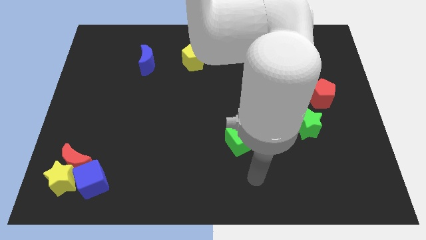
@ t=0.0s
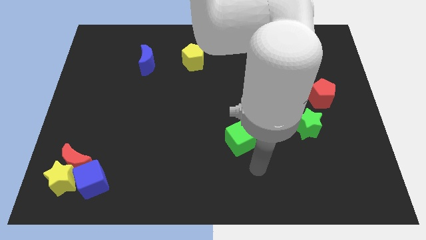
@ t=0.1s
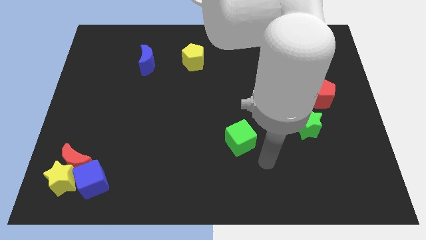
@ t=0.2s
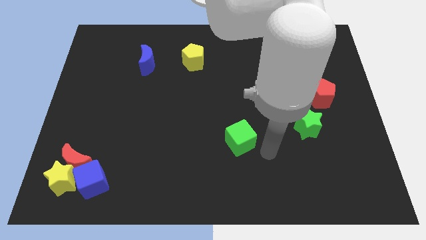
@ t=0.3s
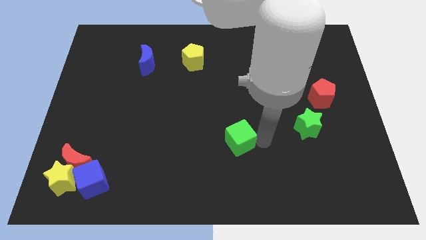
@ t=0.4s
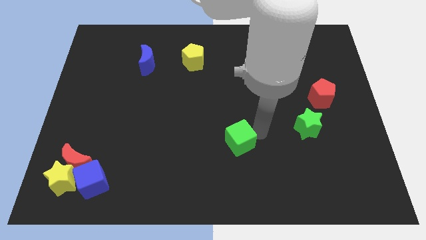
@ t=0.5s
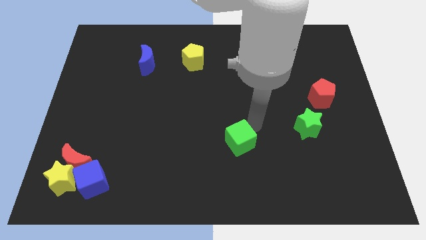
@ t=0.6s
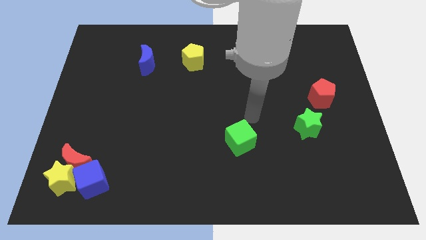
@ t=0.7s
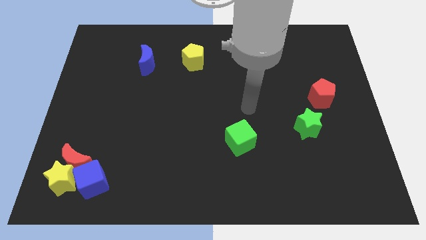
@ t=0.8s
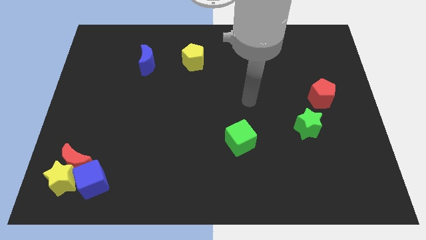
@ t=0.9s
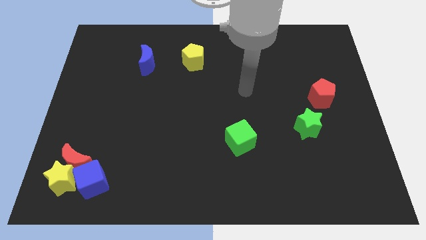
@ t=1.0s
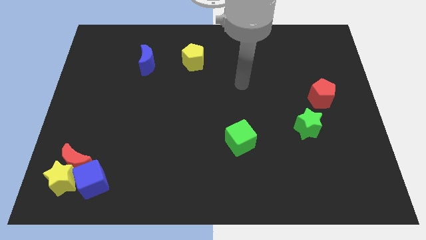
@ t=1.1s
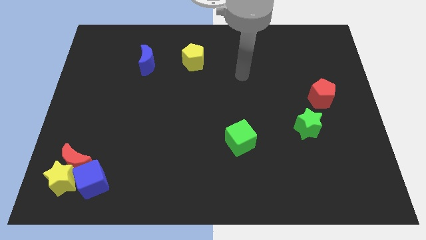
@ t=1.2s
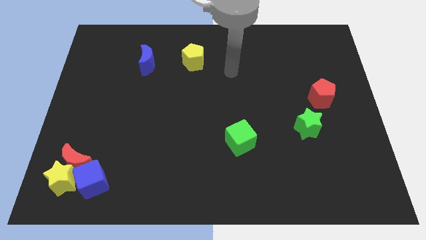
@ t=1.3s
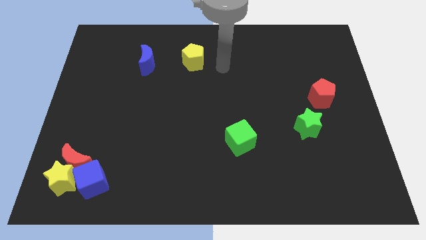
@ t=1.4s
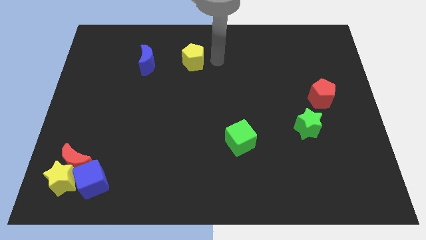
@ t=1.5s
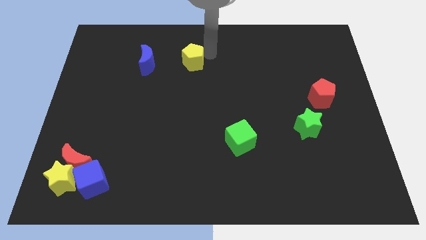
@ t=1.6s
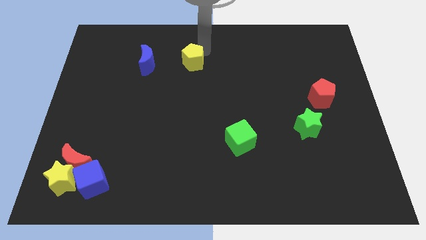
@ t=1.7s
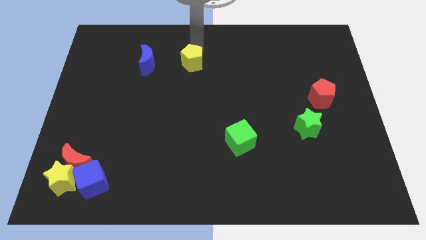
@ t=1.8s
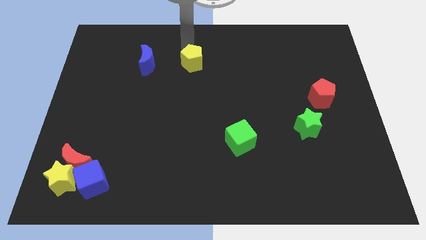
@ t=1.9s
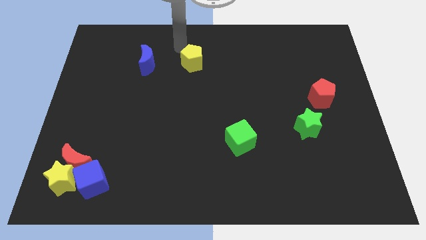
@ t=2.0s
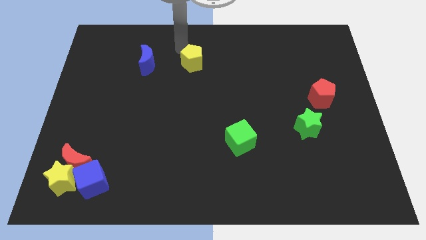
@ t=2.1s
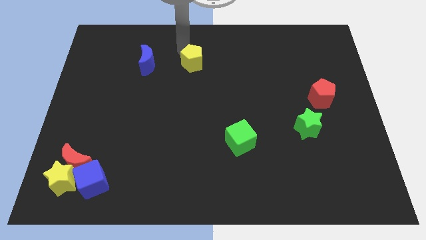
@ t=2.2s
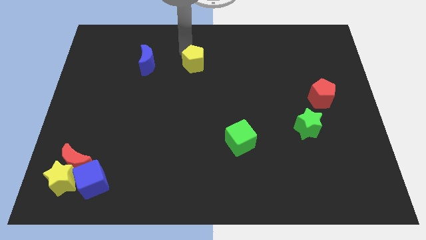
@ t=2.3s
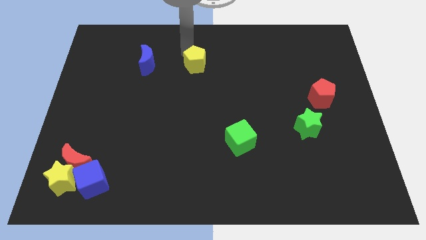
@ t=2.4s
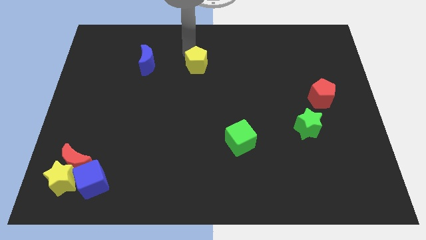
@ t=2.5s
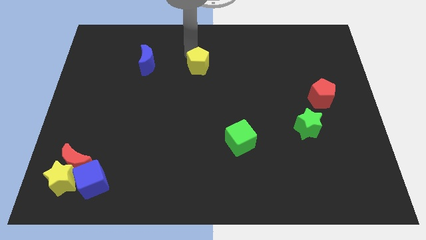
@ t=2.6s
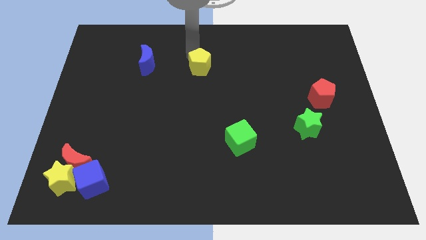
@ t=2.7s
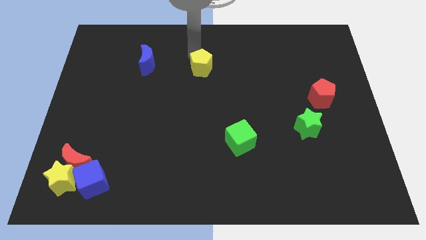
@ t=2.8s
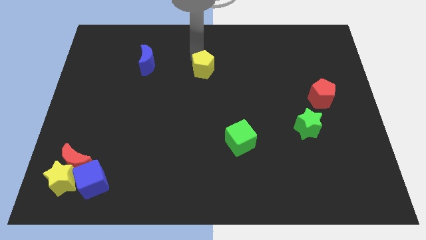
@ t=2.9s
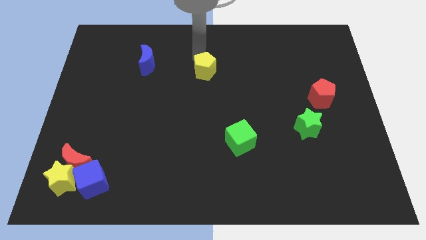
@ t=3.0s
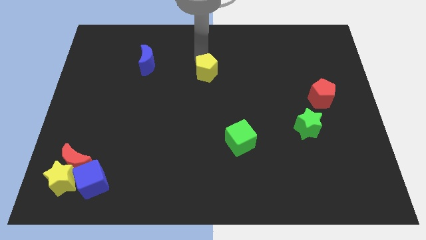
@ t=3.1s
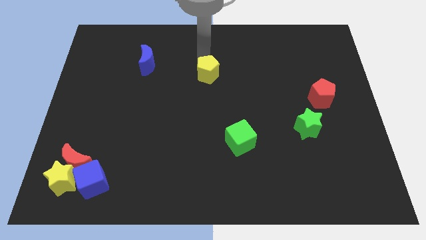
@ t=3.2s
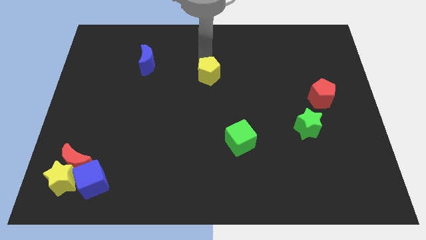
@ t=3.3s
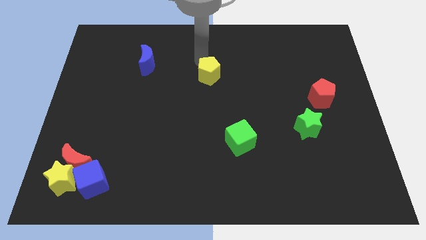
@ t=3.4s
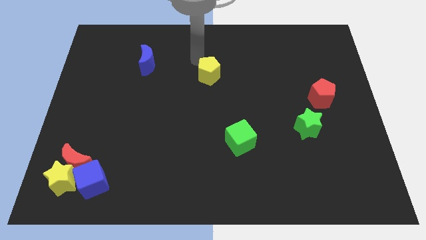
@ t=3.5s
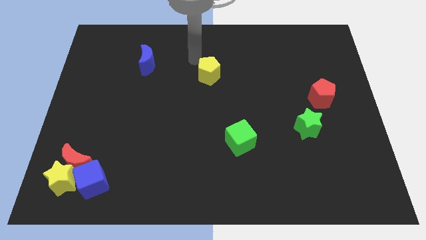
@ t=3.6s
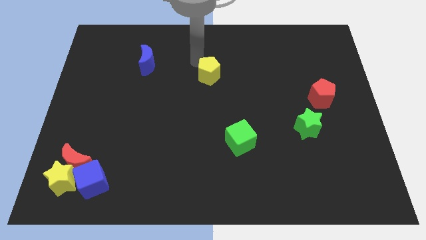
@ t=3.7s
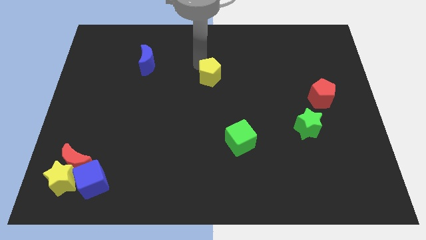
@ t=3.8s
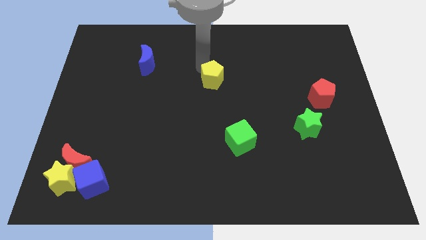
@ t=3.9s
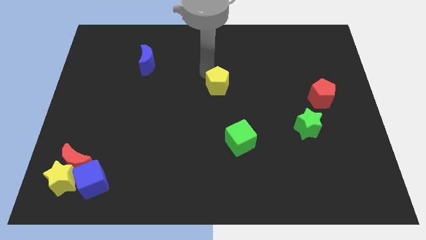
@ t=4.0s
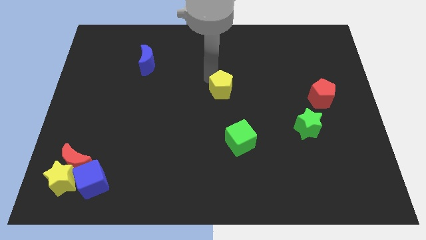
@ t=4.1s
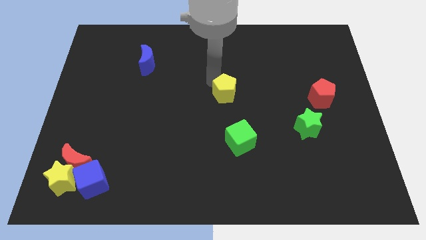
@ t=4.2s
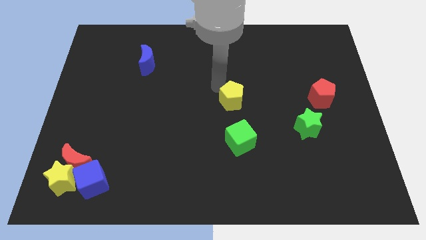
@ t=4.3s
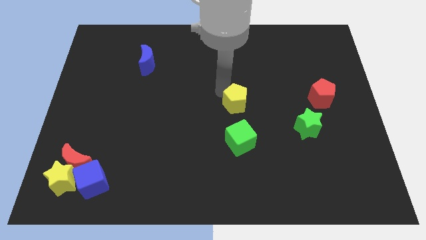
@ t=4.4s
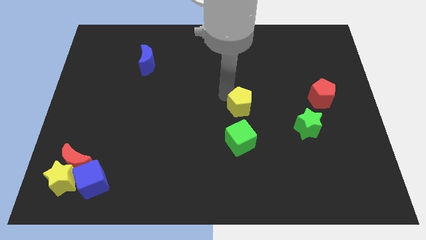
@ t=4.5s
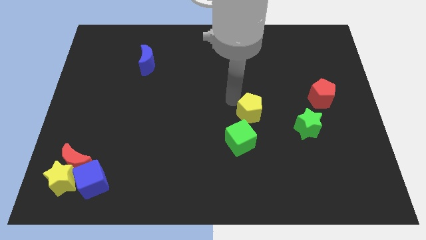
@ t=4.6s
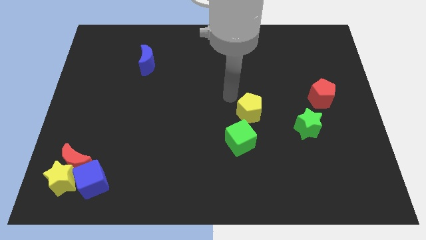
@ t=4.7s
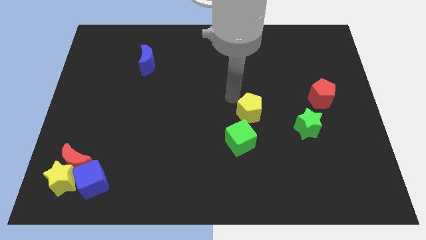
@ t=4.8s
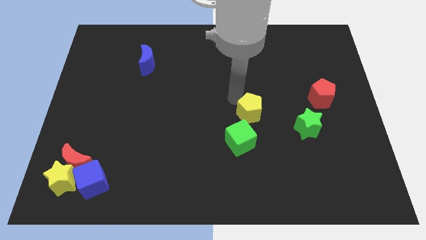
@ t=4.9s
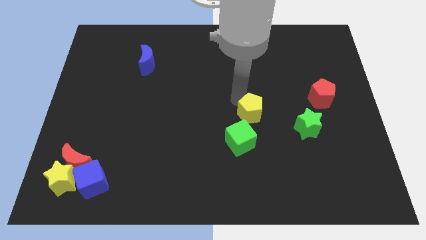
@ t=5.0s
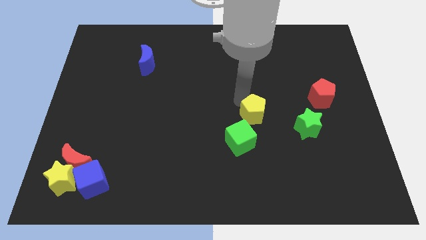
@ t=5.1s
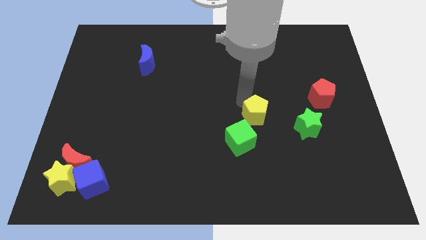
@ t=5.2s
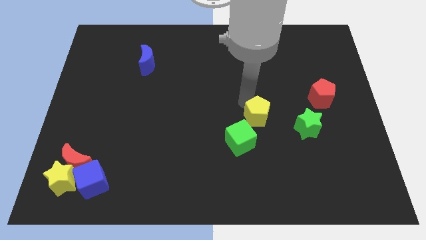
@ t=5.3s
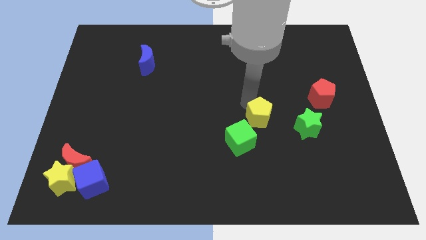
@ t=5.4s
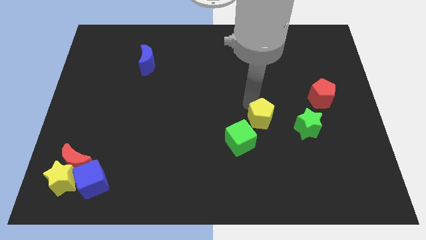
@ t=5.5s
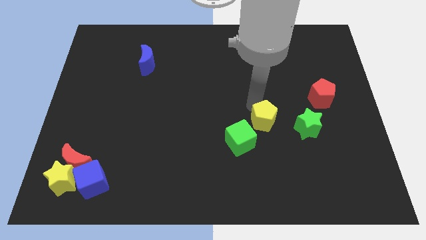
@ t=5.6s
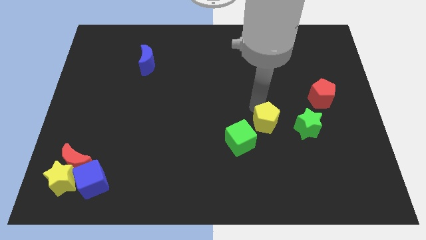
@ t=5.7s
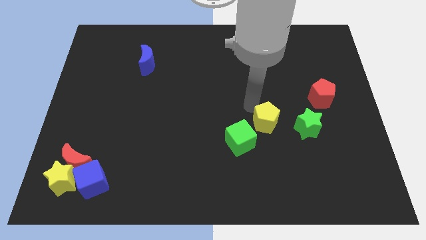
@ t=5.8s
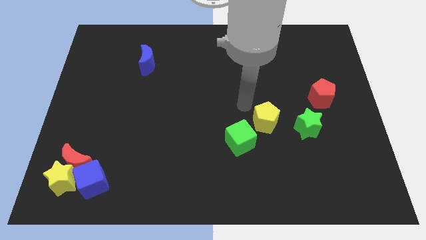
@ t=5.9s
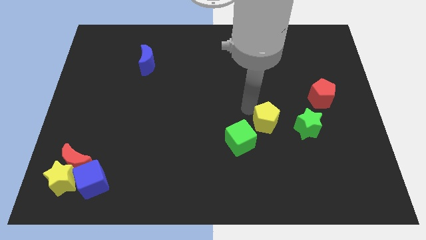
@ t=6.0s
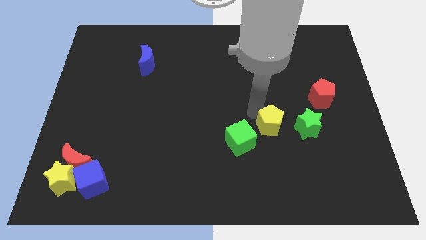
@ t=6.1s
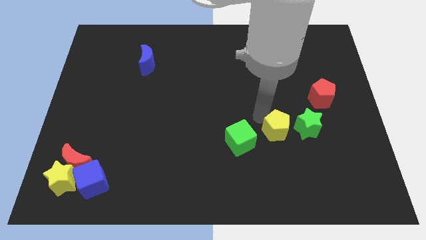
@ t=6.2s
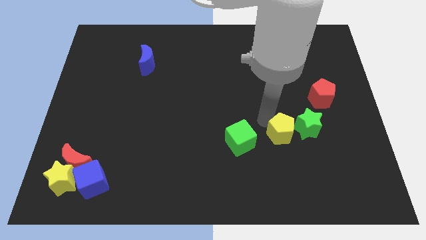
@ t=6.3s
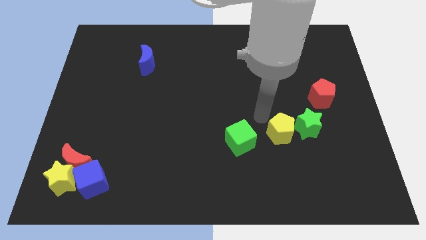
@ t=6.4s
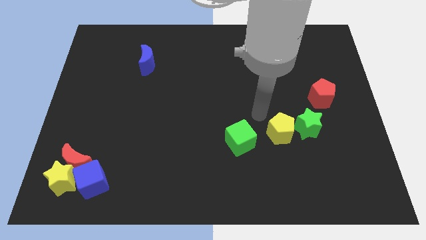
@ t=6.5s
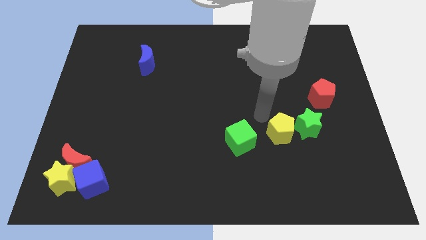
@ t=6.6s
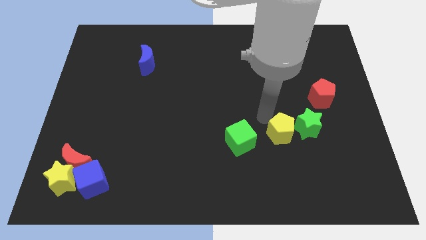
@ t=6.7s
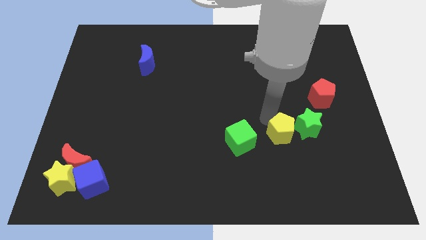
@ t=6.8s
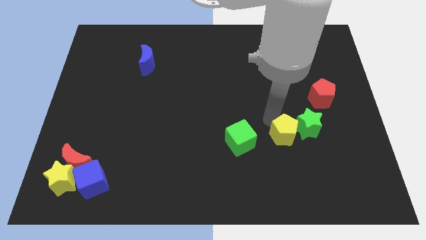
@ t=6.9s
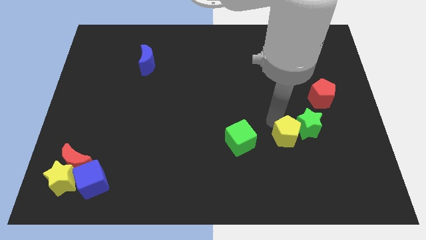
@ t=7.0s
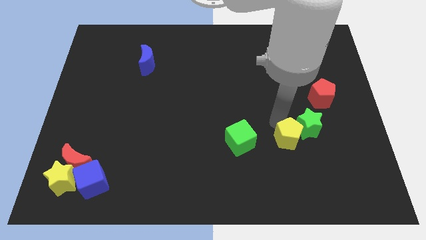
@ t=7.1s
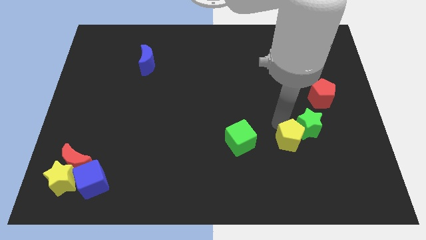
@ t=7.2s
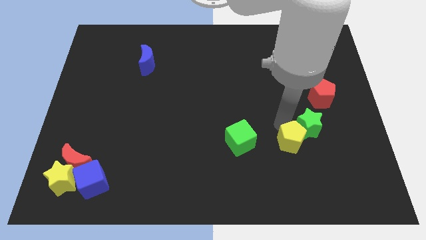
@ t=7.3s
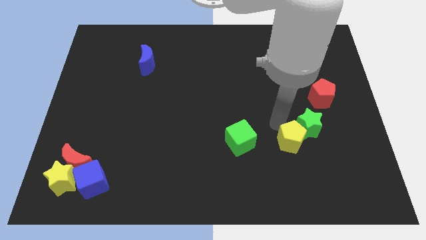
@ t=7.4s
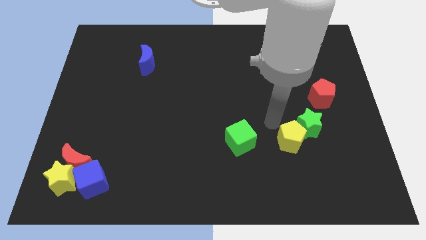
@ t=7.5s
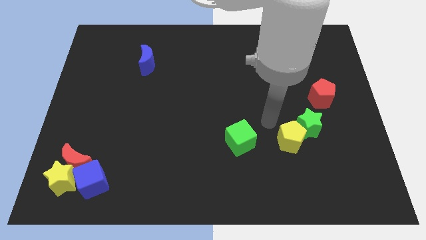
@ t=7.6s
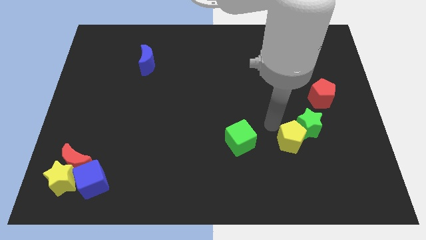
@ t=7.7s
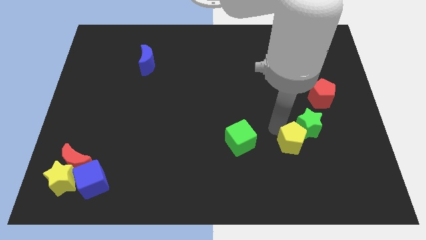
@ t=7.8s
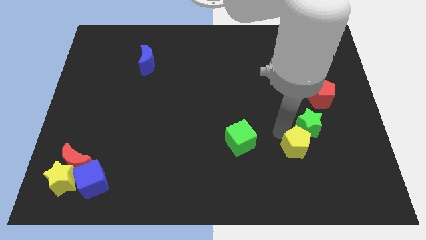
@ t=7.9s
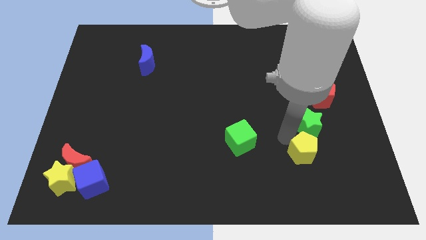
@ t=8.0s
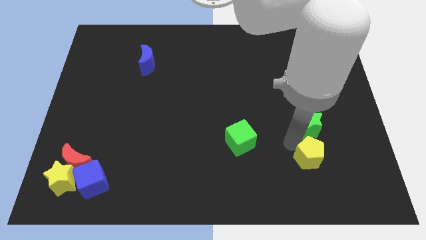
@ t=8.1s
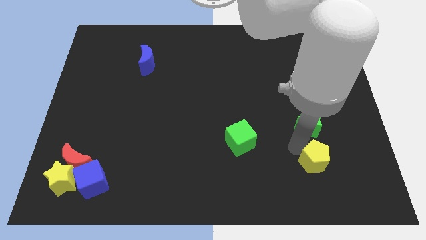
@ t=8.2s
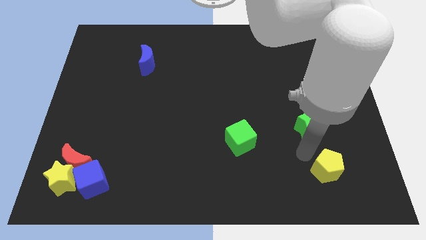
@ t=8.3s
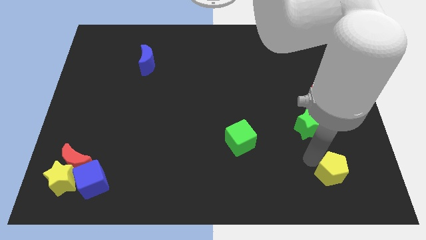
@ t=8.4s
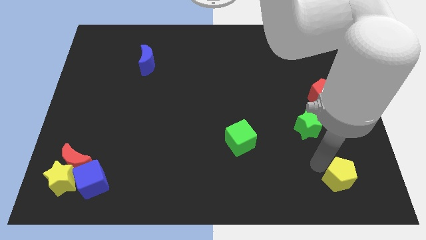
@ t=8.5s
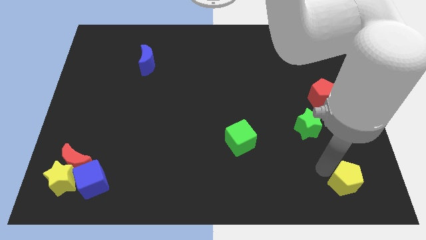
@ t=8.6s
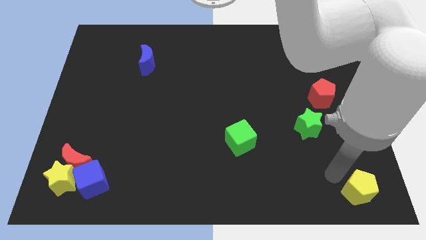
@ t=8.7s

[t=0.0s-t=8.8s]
move the yellow pentagon to the bottom right corner
